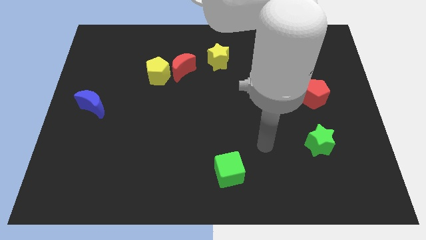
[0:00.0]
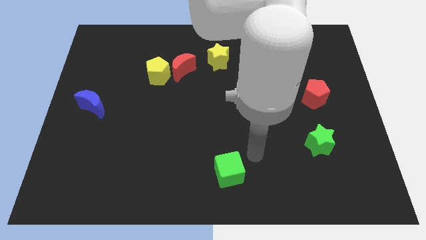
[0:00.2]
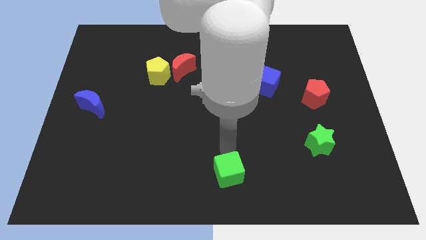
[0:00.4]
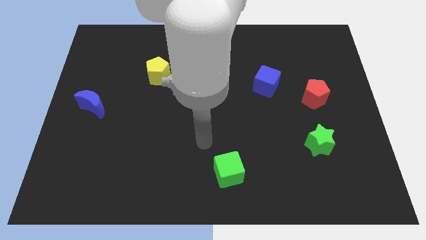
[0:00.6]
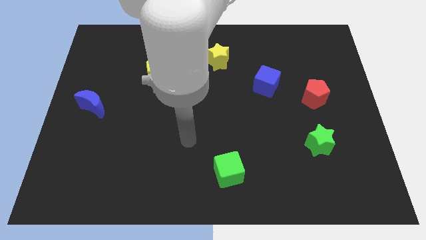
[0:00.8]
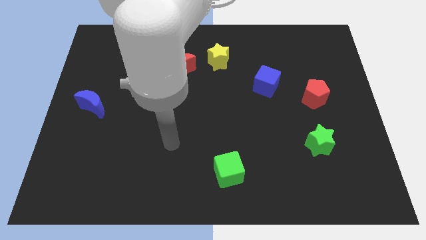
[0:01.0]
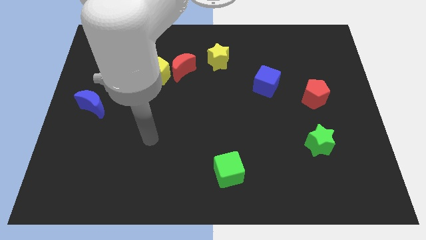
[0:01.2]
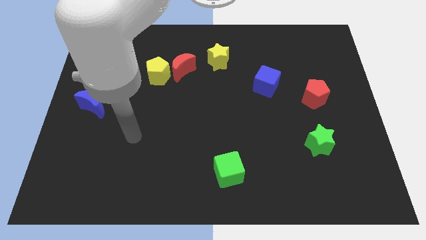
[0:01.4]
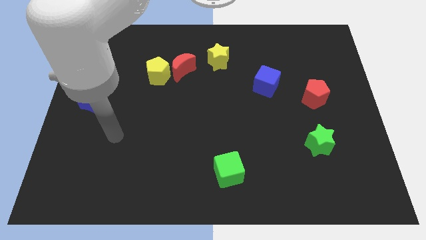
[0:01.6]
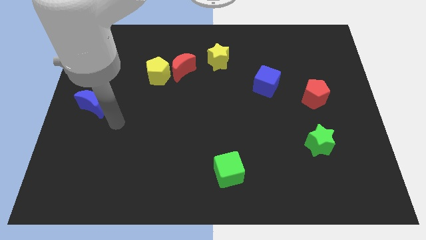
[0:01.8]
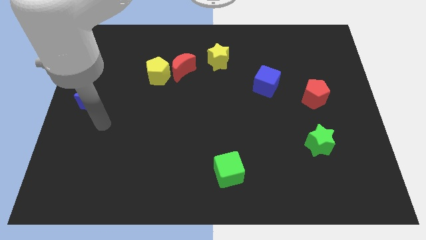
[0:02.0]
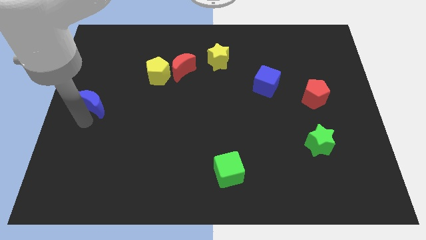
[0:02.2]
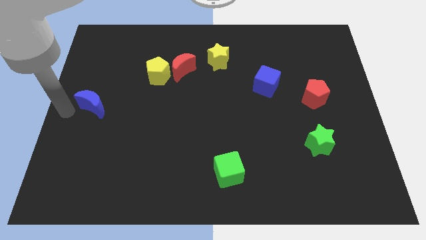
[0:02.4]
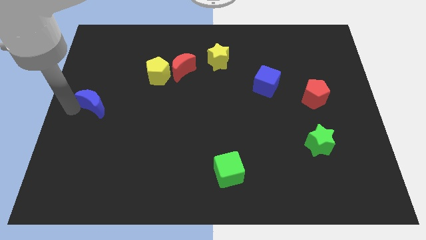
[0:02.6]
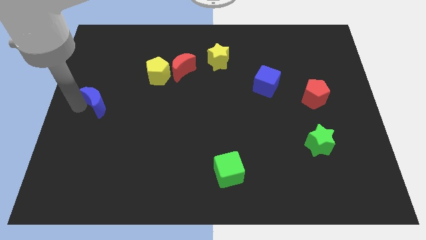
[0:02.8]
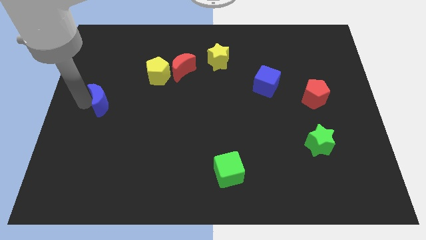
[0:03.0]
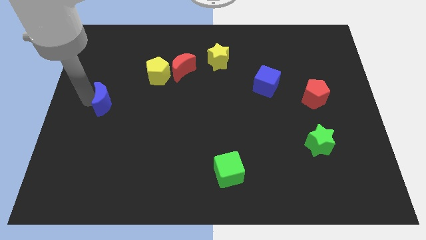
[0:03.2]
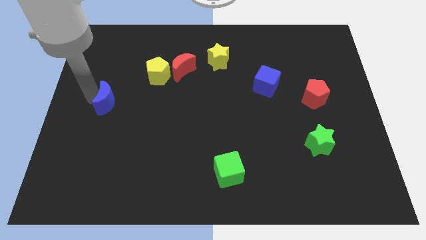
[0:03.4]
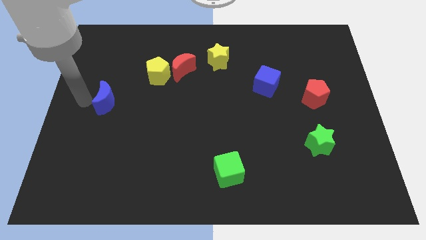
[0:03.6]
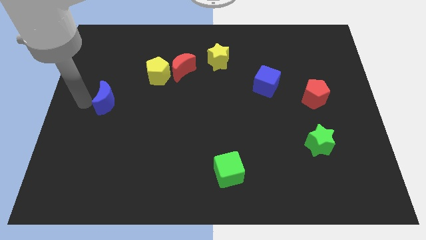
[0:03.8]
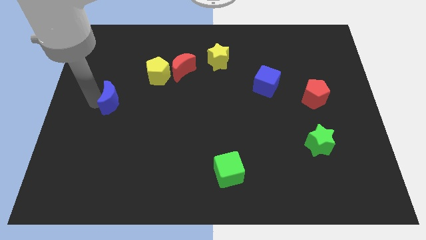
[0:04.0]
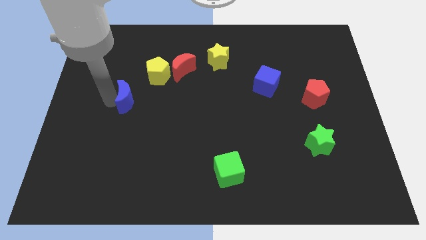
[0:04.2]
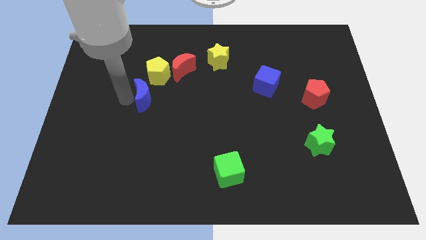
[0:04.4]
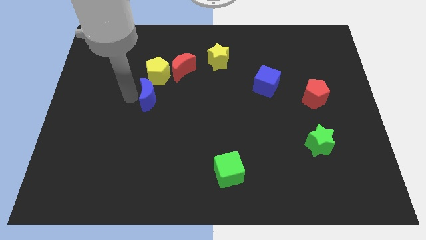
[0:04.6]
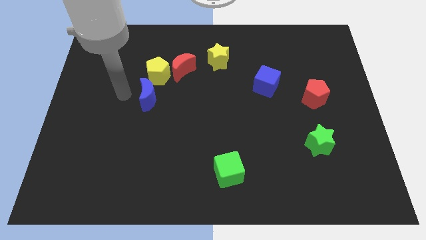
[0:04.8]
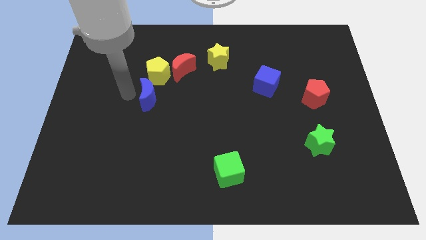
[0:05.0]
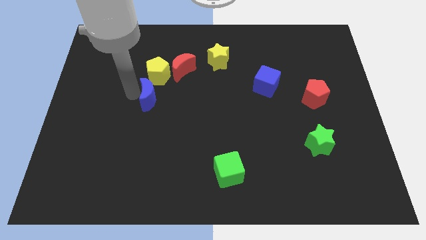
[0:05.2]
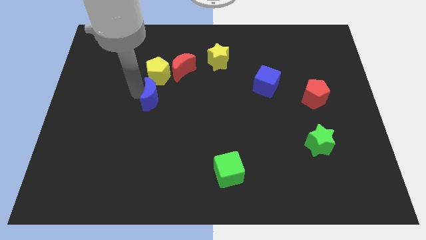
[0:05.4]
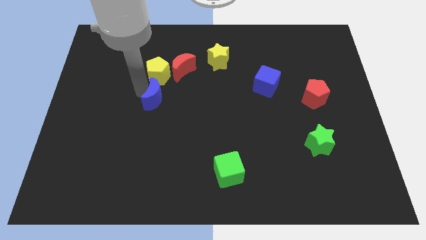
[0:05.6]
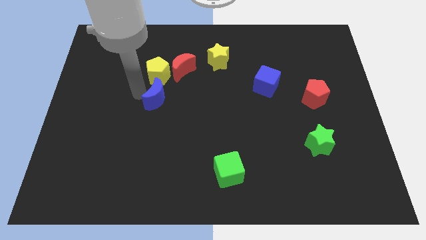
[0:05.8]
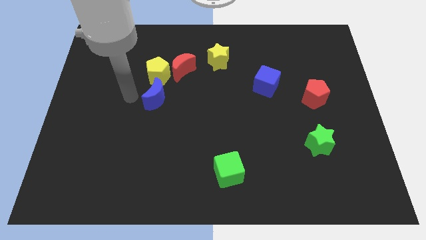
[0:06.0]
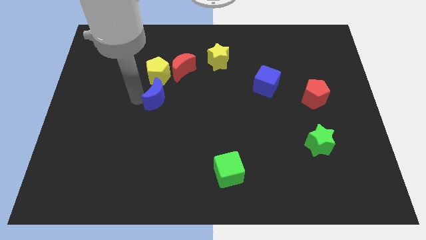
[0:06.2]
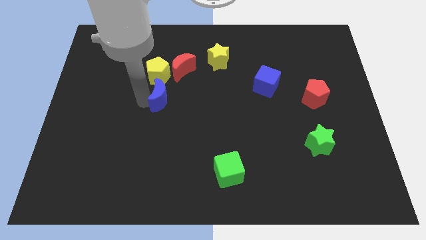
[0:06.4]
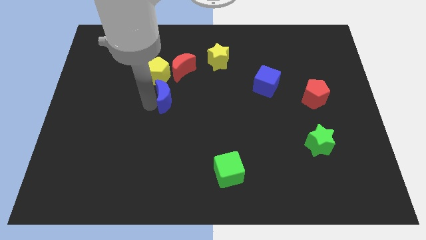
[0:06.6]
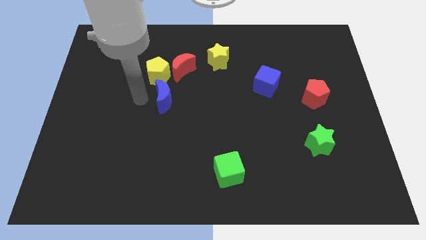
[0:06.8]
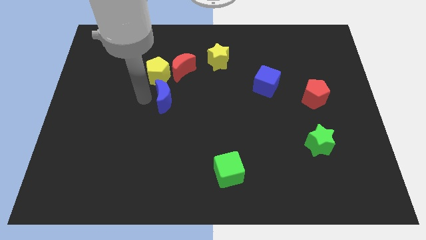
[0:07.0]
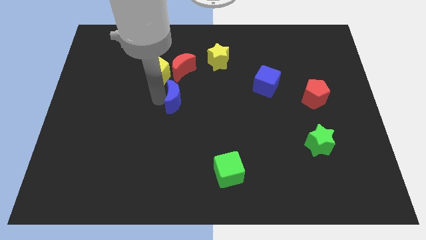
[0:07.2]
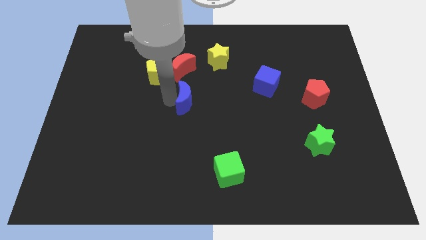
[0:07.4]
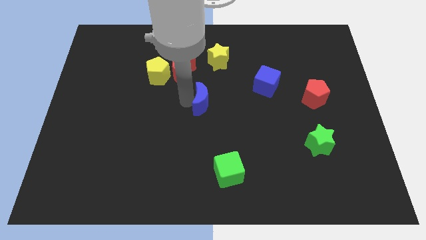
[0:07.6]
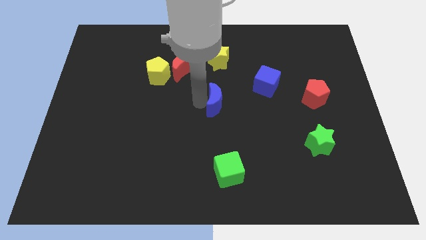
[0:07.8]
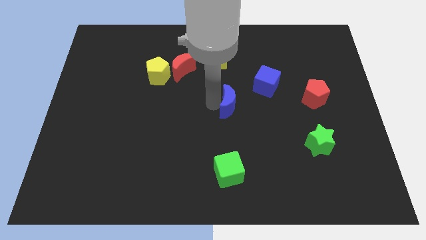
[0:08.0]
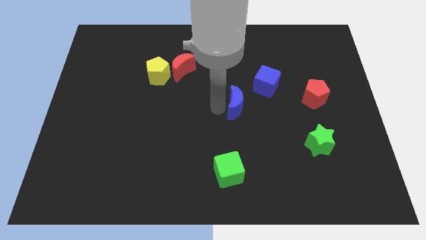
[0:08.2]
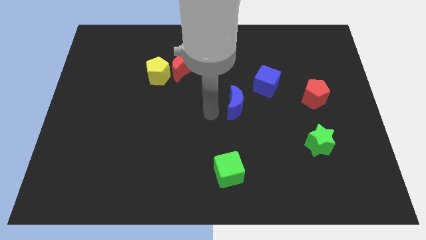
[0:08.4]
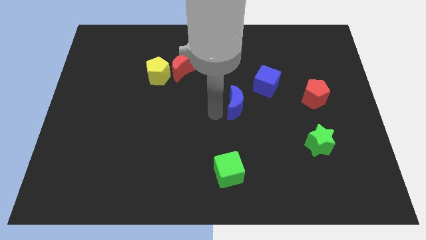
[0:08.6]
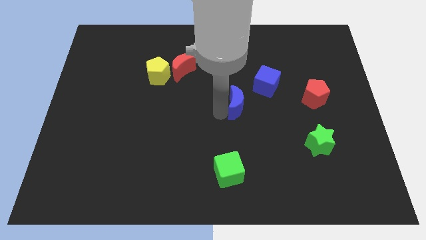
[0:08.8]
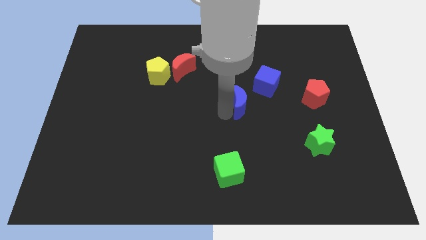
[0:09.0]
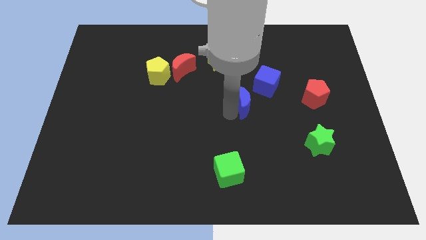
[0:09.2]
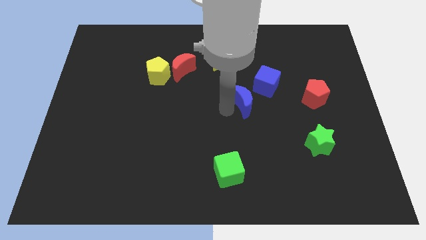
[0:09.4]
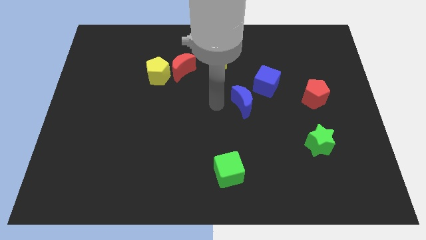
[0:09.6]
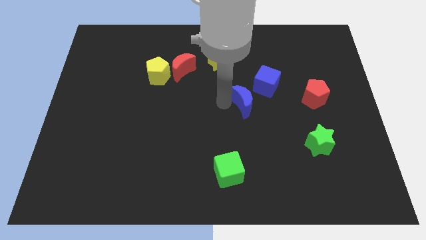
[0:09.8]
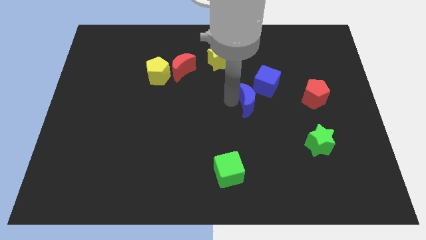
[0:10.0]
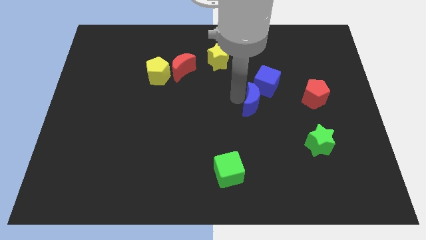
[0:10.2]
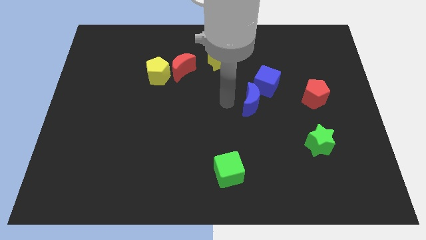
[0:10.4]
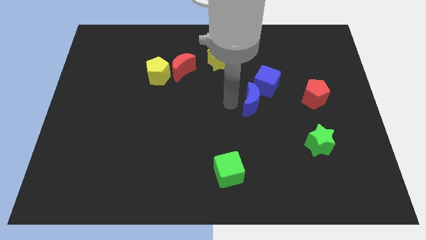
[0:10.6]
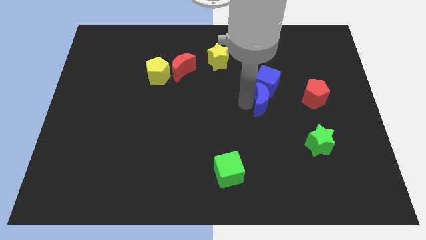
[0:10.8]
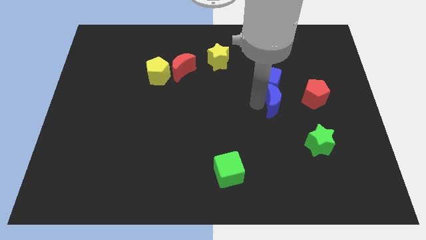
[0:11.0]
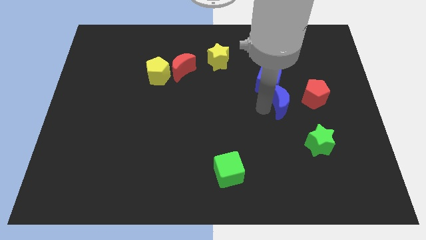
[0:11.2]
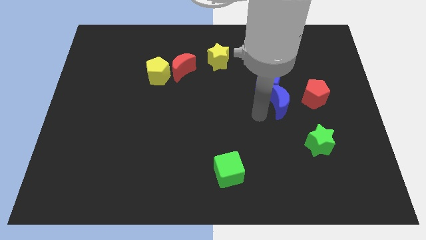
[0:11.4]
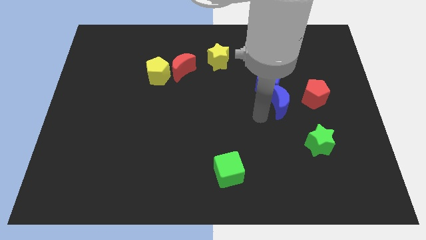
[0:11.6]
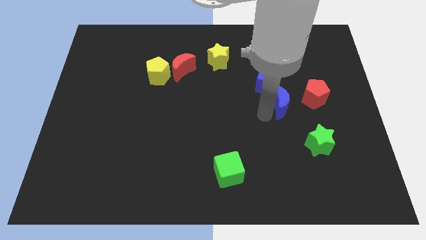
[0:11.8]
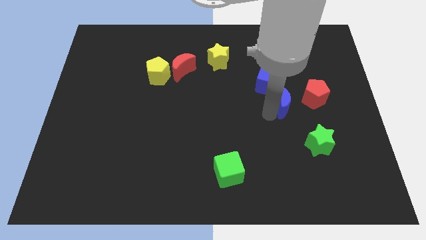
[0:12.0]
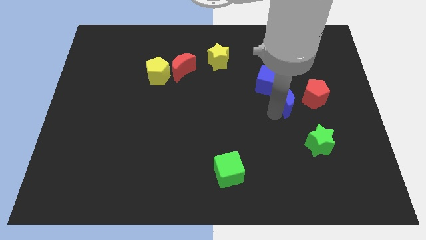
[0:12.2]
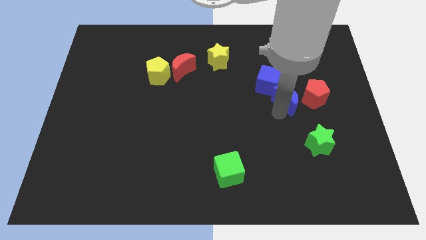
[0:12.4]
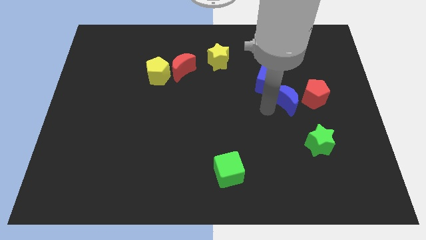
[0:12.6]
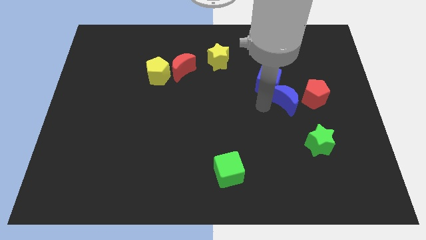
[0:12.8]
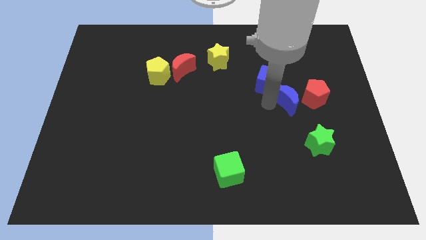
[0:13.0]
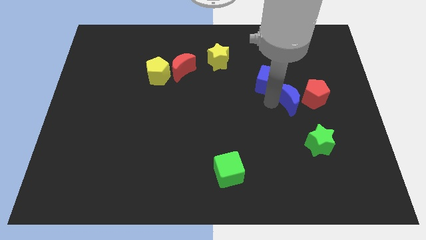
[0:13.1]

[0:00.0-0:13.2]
push the blue moon next to the red pentagon

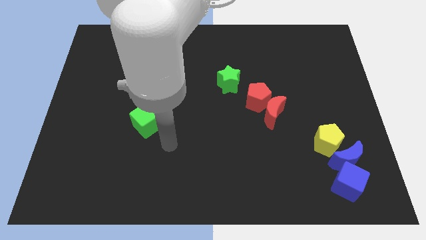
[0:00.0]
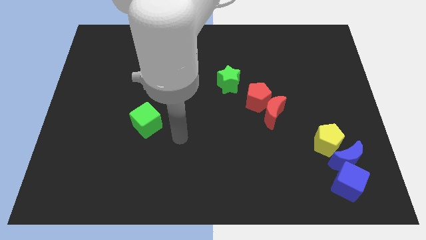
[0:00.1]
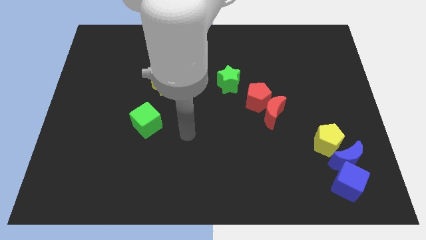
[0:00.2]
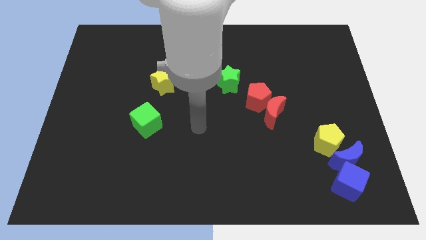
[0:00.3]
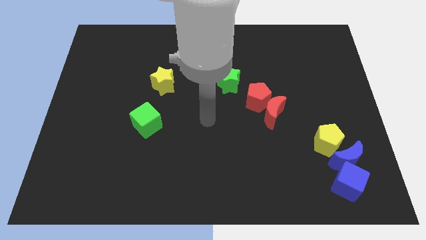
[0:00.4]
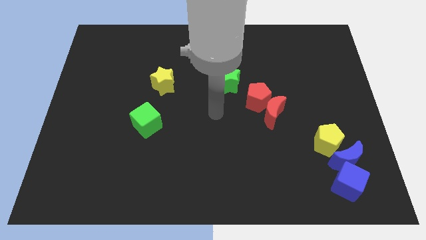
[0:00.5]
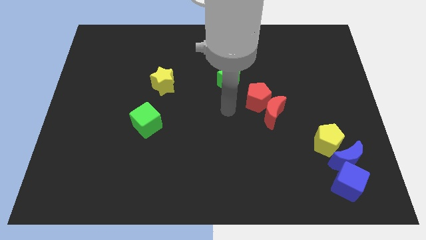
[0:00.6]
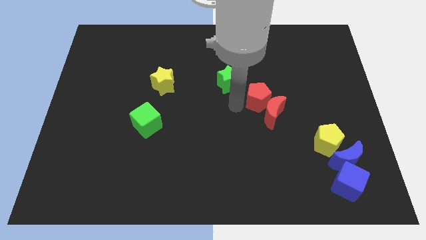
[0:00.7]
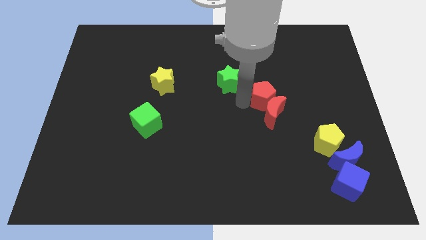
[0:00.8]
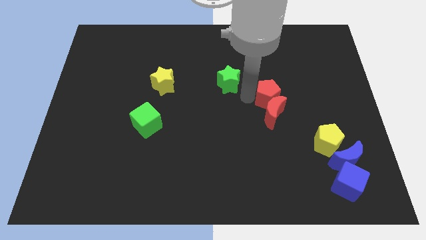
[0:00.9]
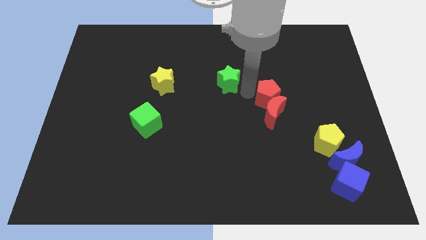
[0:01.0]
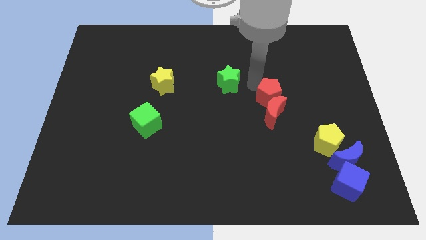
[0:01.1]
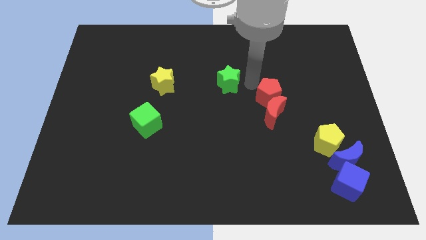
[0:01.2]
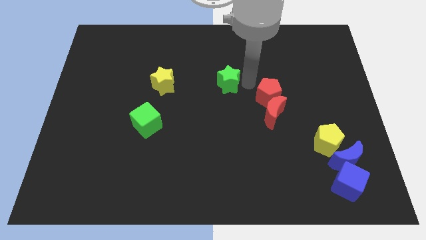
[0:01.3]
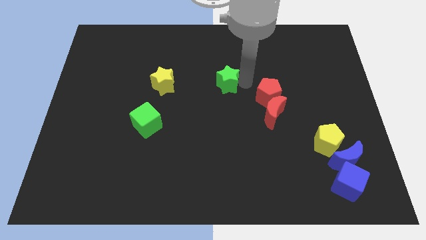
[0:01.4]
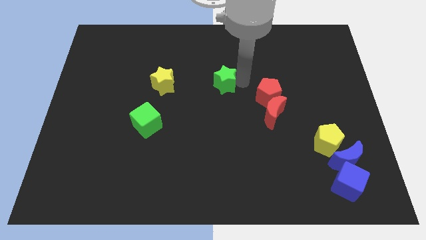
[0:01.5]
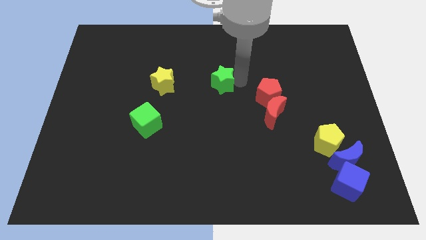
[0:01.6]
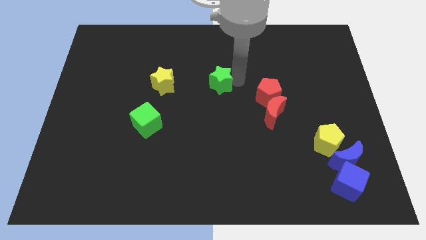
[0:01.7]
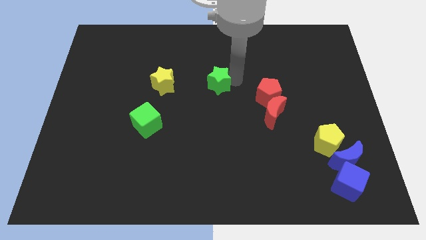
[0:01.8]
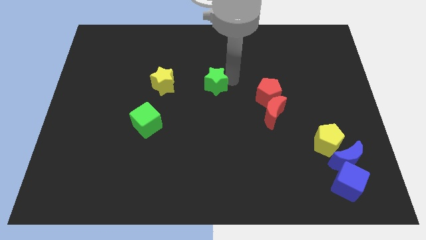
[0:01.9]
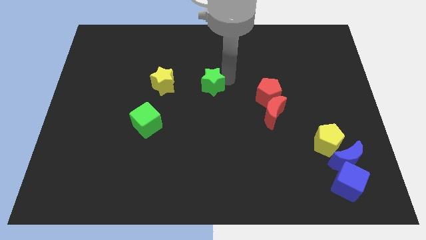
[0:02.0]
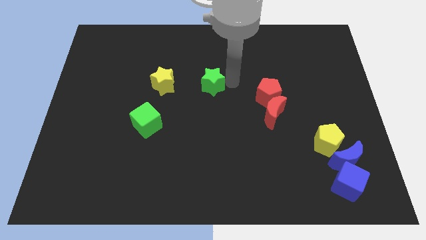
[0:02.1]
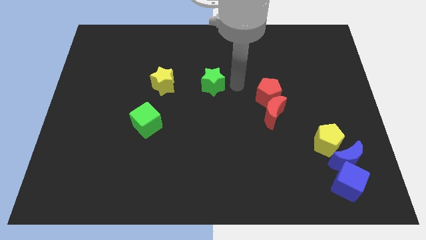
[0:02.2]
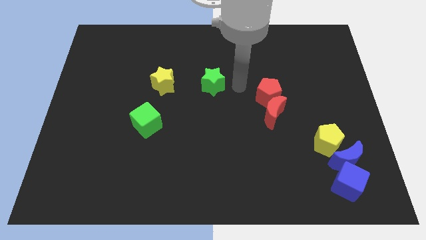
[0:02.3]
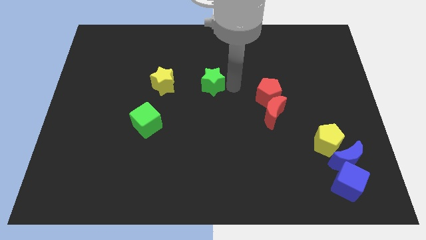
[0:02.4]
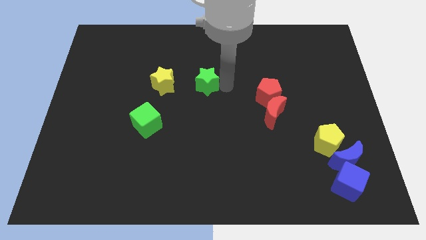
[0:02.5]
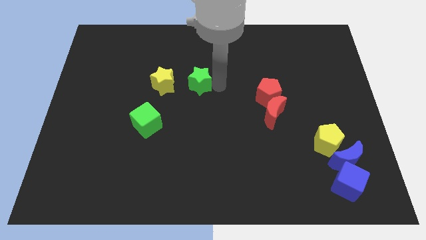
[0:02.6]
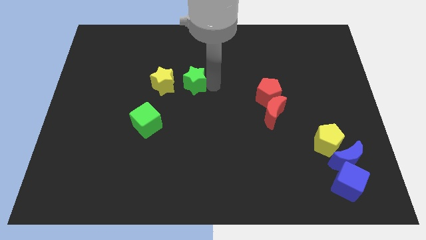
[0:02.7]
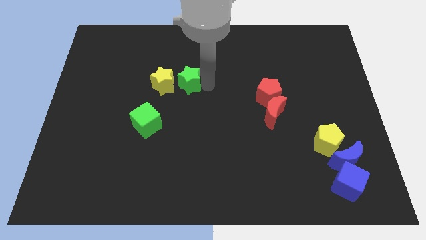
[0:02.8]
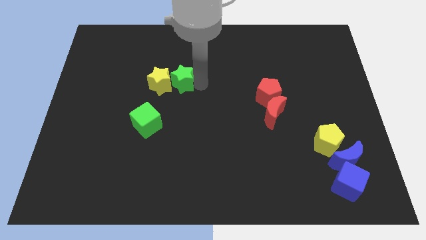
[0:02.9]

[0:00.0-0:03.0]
push the green star next to the yellow star
